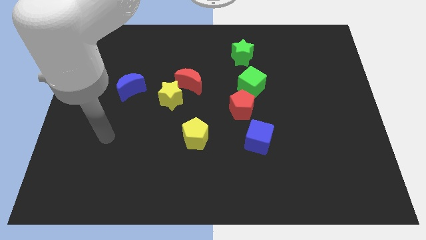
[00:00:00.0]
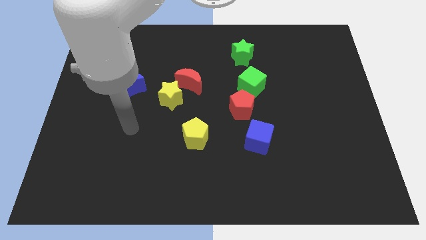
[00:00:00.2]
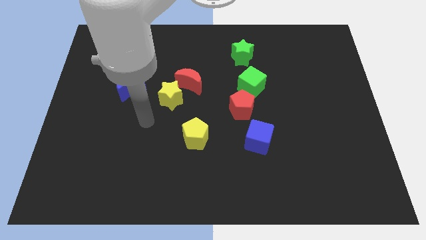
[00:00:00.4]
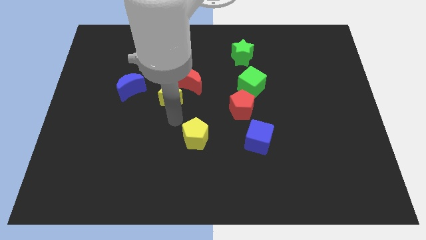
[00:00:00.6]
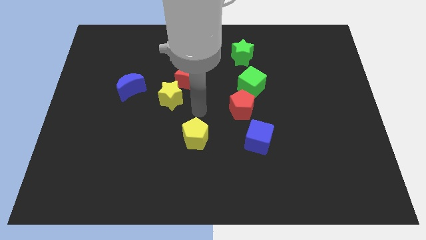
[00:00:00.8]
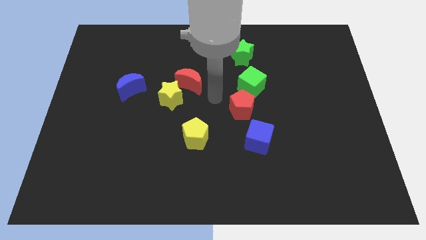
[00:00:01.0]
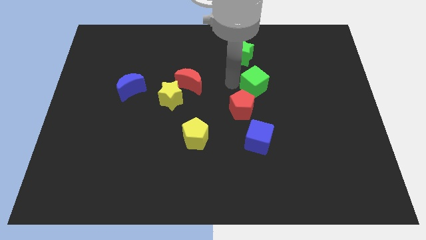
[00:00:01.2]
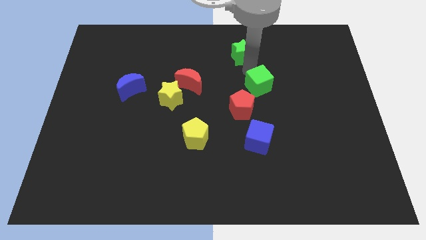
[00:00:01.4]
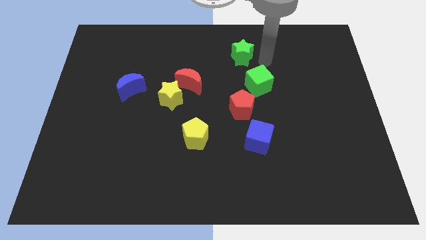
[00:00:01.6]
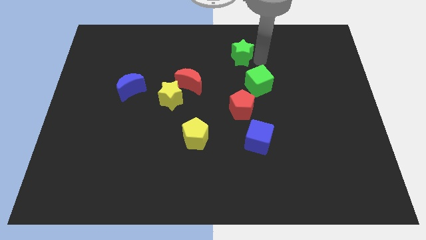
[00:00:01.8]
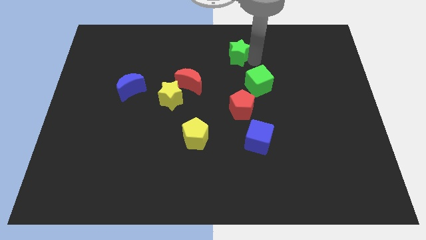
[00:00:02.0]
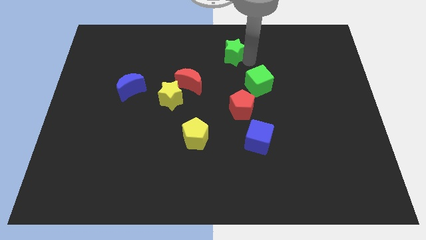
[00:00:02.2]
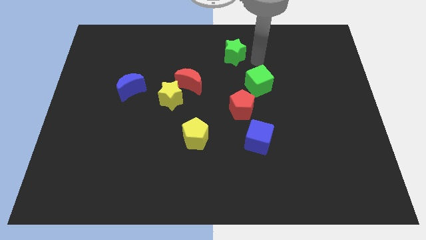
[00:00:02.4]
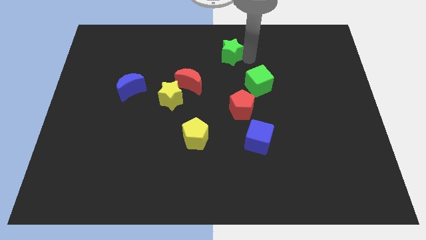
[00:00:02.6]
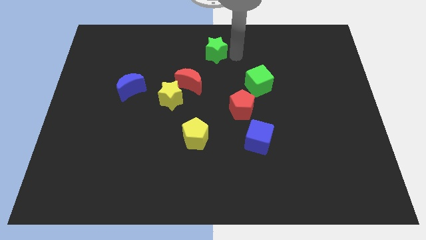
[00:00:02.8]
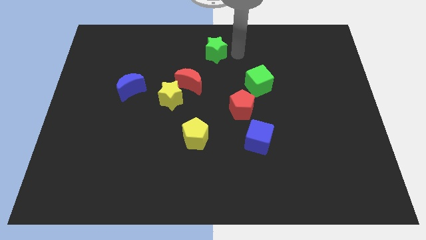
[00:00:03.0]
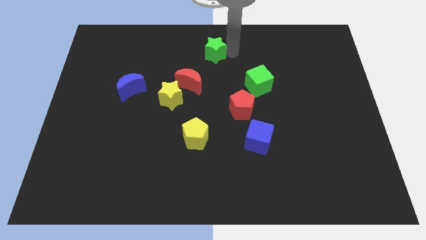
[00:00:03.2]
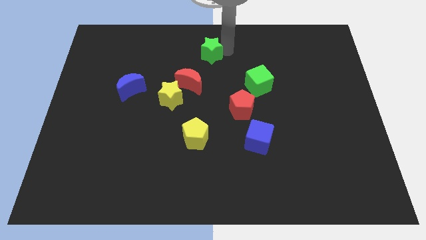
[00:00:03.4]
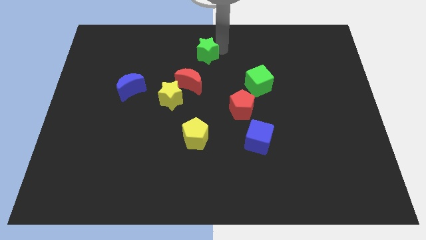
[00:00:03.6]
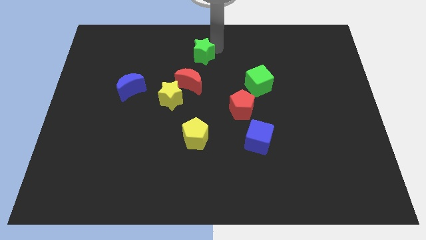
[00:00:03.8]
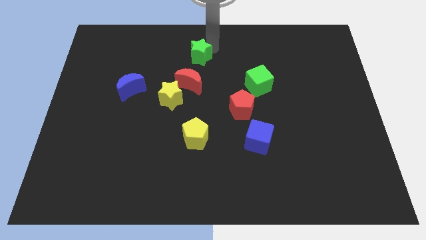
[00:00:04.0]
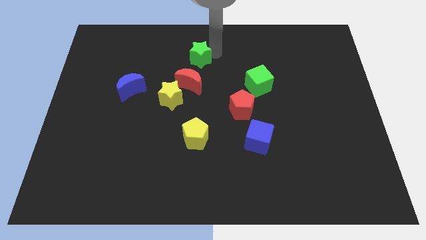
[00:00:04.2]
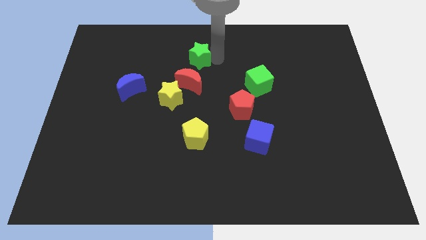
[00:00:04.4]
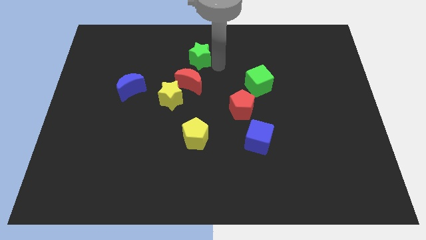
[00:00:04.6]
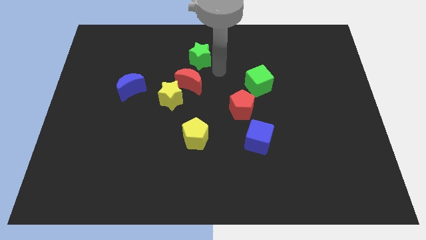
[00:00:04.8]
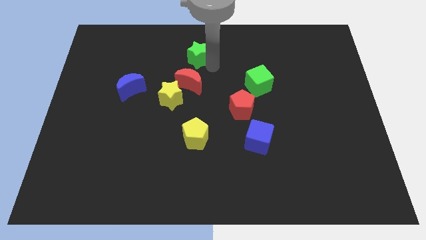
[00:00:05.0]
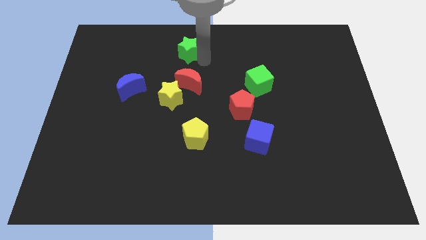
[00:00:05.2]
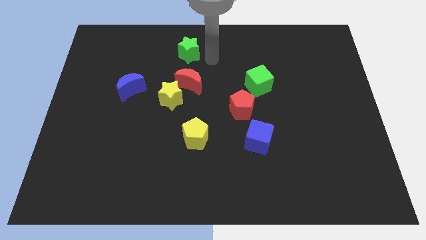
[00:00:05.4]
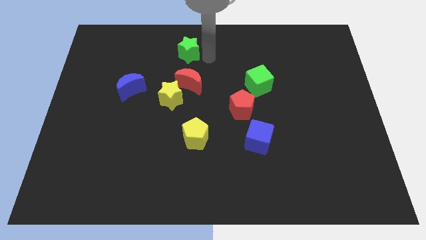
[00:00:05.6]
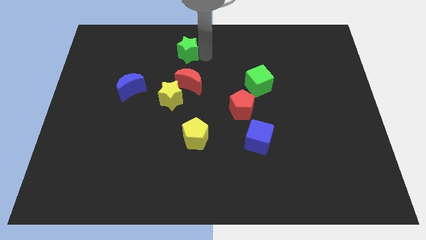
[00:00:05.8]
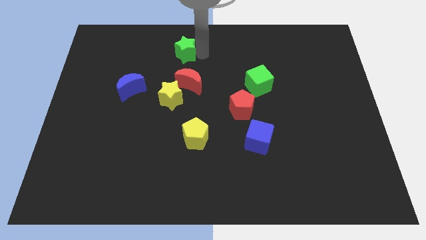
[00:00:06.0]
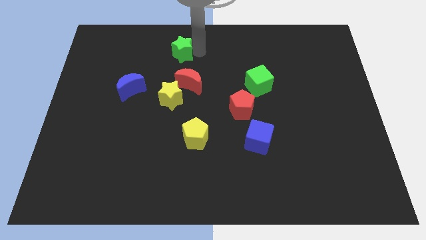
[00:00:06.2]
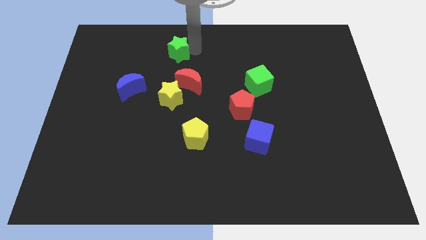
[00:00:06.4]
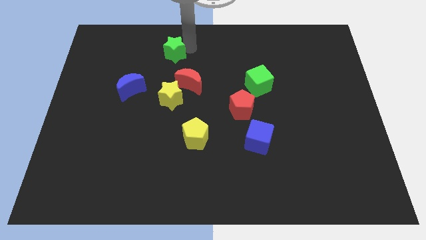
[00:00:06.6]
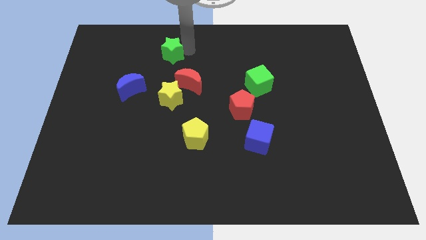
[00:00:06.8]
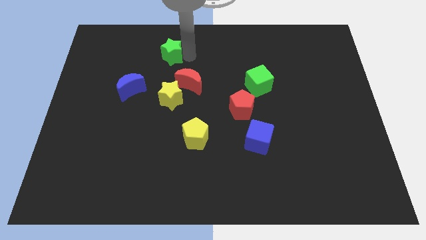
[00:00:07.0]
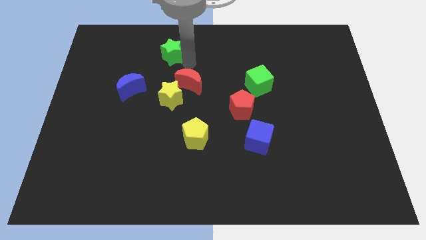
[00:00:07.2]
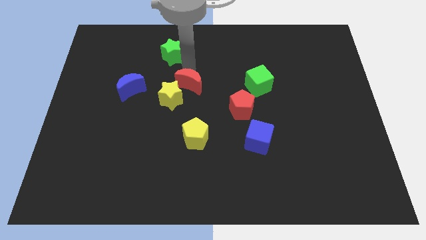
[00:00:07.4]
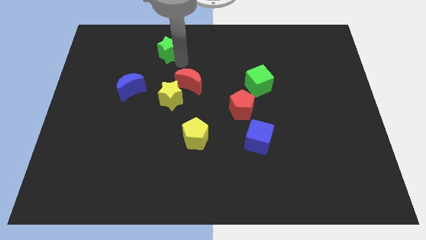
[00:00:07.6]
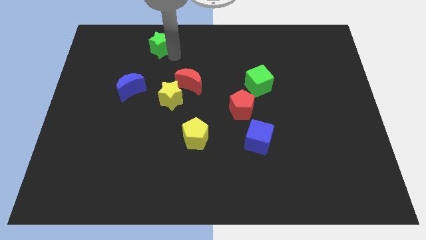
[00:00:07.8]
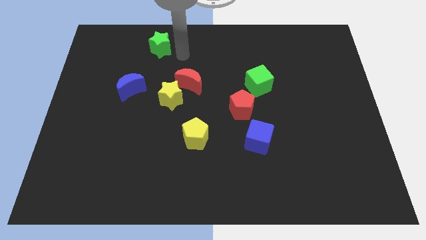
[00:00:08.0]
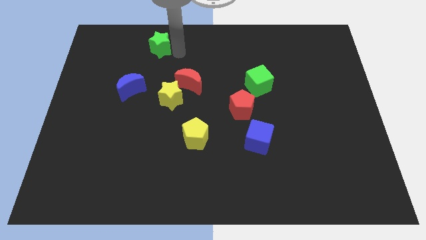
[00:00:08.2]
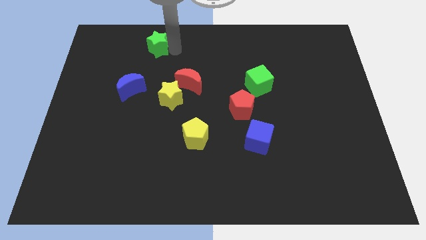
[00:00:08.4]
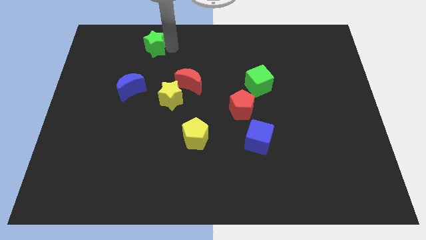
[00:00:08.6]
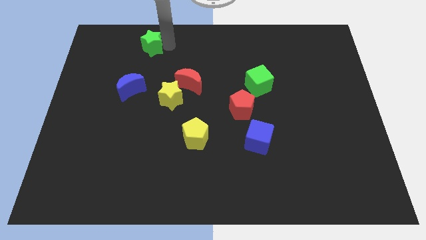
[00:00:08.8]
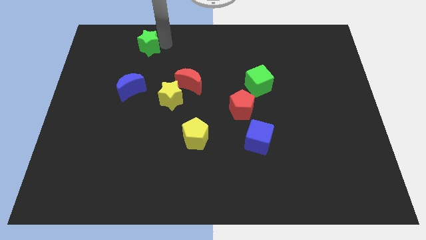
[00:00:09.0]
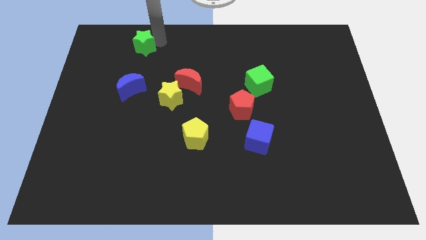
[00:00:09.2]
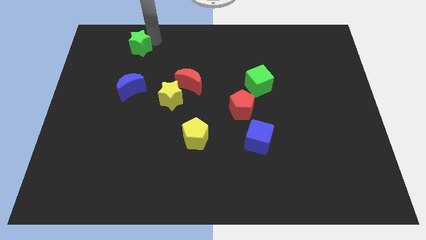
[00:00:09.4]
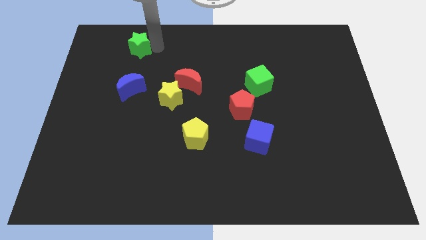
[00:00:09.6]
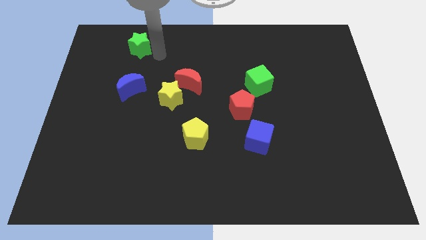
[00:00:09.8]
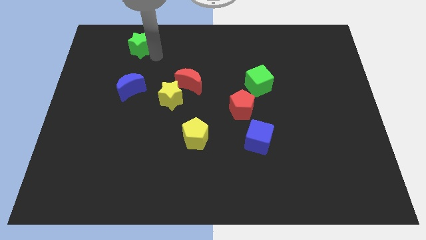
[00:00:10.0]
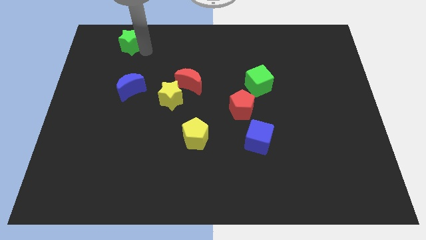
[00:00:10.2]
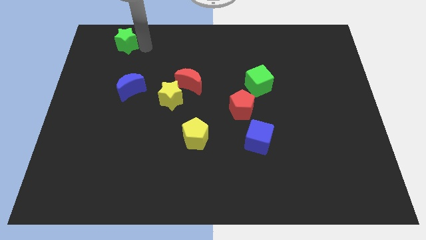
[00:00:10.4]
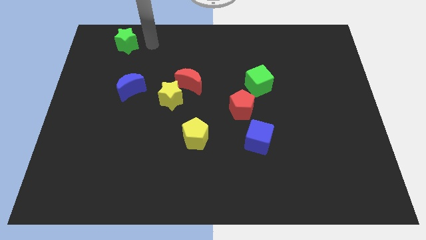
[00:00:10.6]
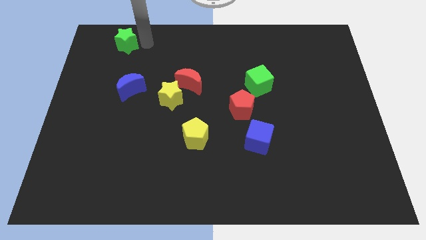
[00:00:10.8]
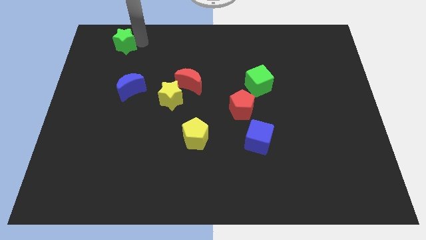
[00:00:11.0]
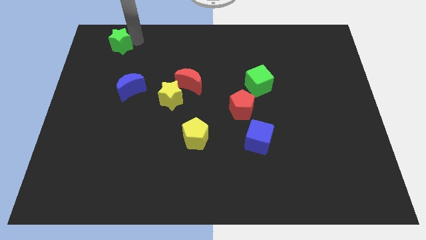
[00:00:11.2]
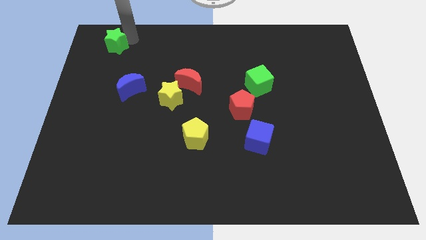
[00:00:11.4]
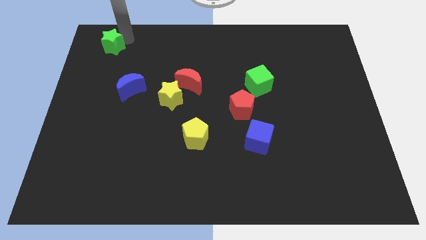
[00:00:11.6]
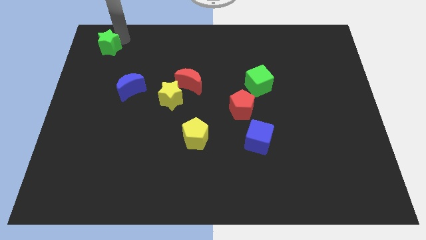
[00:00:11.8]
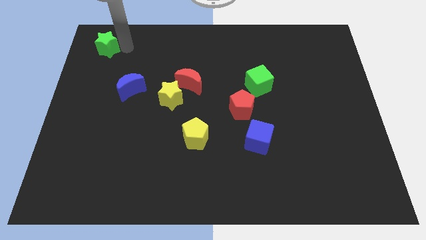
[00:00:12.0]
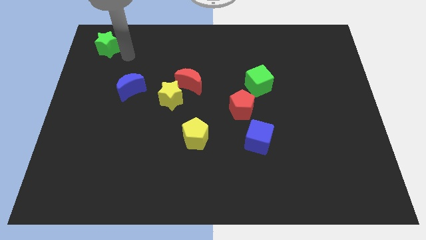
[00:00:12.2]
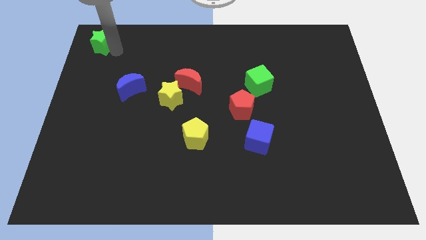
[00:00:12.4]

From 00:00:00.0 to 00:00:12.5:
move the green star to the top left

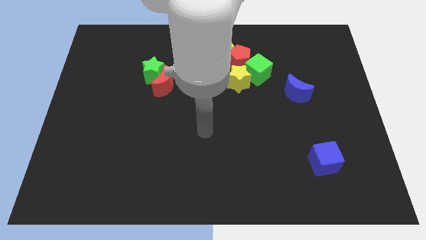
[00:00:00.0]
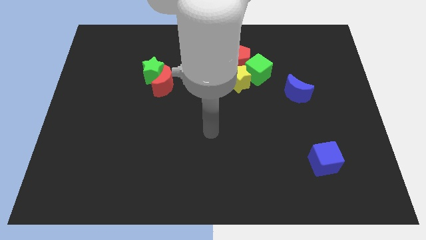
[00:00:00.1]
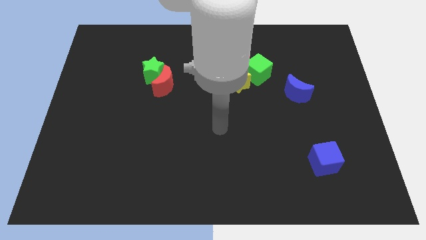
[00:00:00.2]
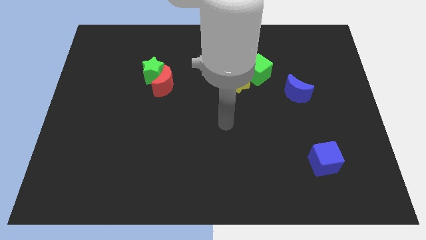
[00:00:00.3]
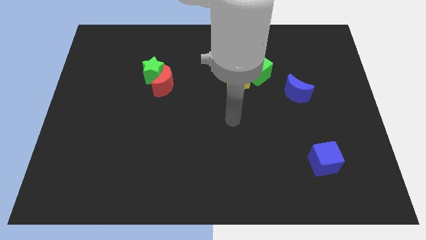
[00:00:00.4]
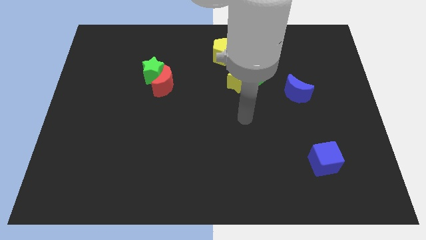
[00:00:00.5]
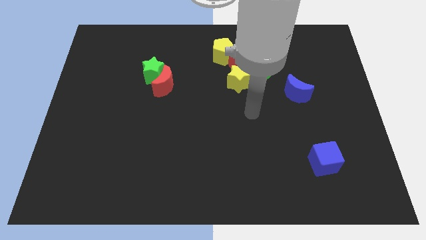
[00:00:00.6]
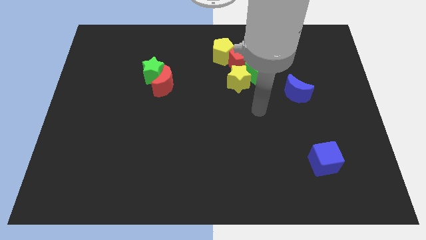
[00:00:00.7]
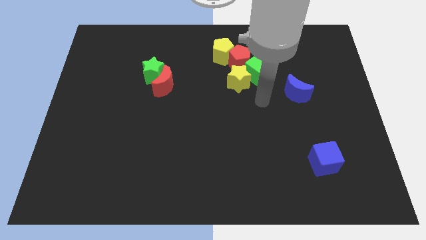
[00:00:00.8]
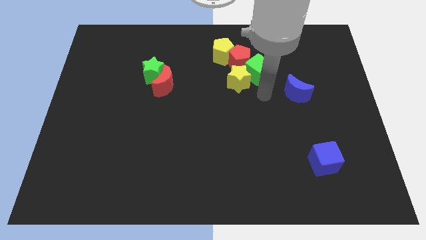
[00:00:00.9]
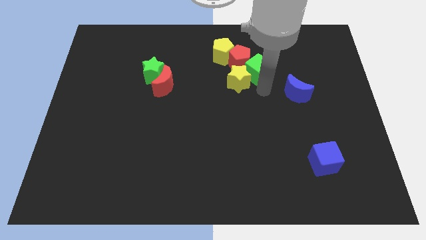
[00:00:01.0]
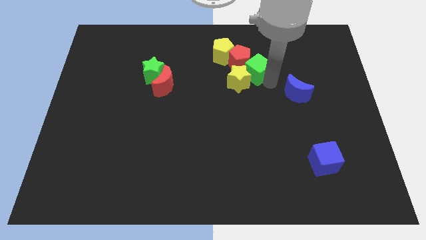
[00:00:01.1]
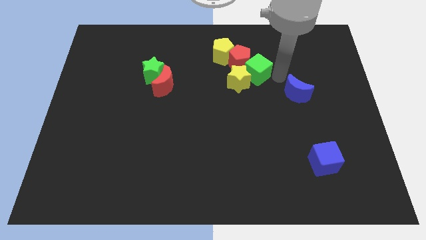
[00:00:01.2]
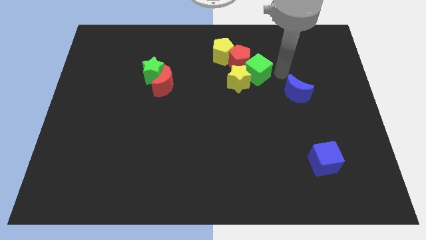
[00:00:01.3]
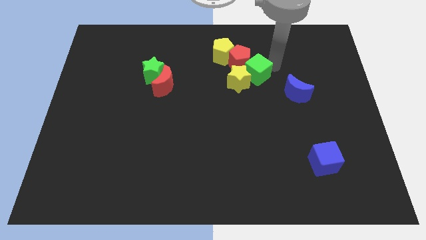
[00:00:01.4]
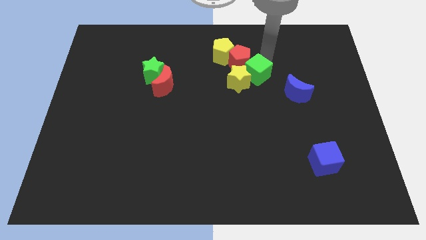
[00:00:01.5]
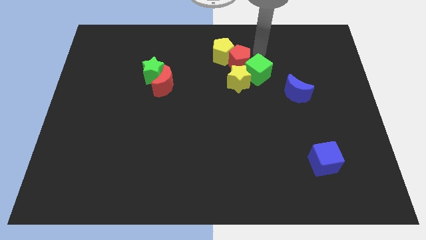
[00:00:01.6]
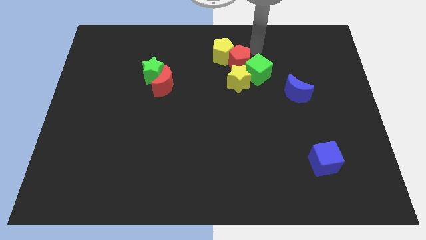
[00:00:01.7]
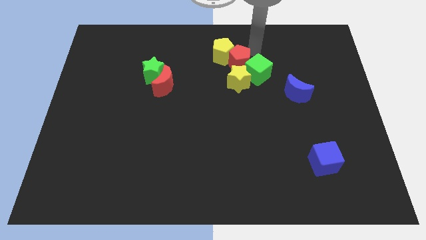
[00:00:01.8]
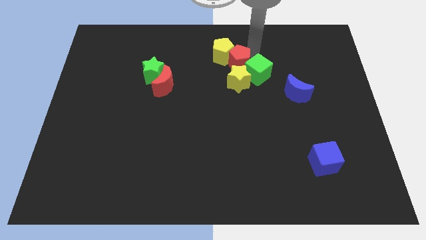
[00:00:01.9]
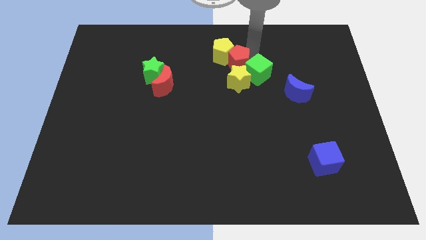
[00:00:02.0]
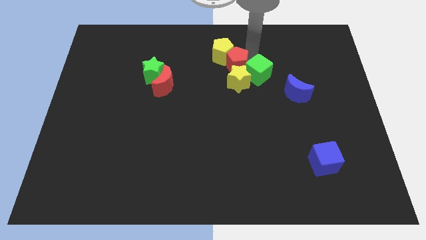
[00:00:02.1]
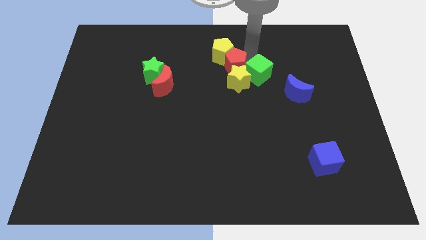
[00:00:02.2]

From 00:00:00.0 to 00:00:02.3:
slide the red pentagon to the center of the board
